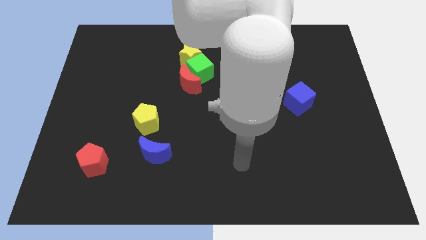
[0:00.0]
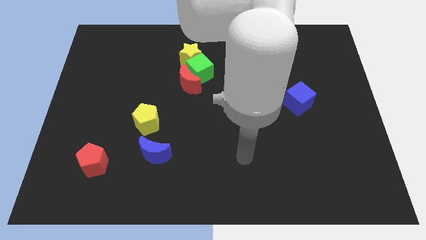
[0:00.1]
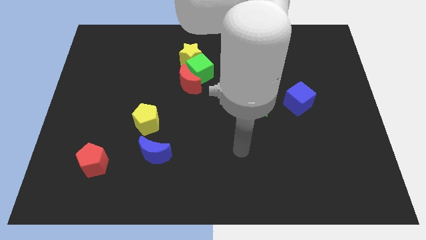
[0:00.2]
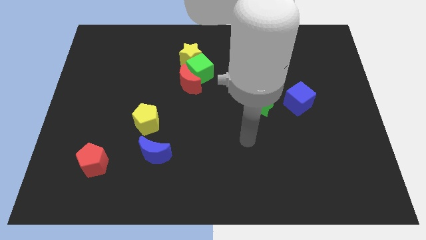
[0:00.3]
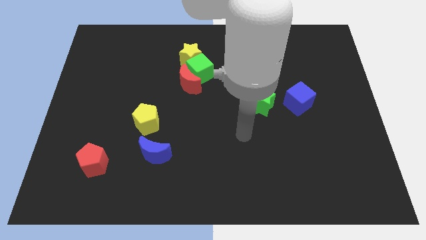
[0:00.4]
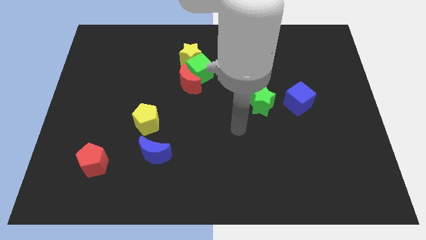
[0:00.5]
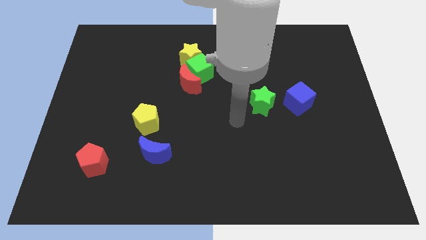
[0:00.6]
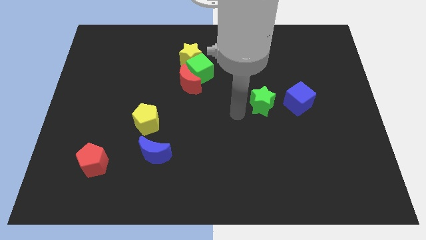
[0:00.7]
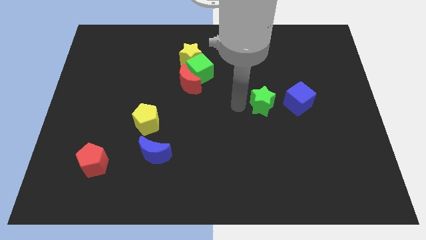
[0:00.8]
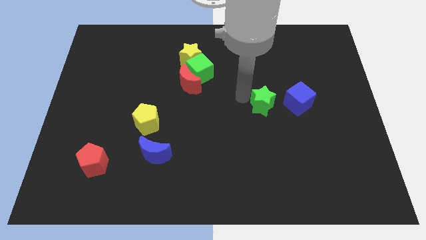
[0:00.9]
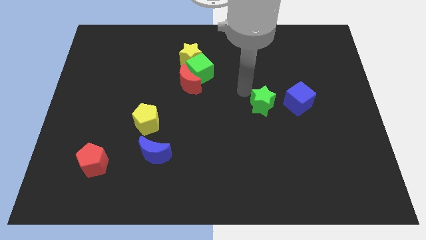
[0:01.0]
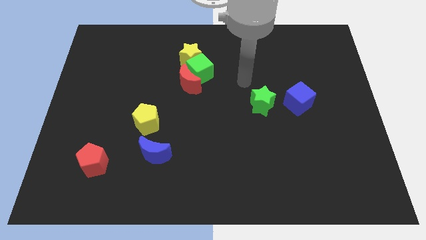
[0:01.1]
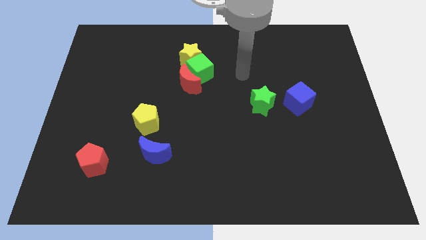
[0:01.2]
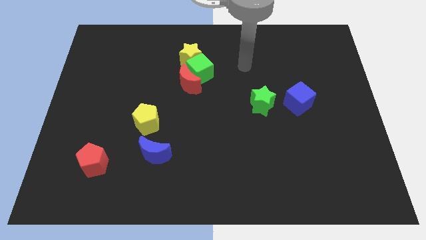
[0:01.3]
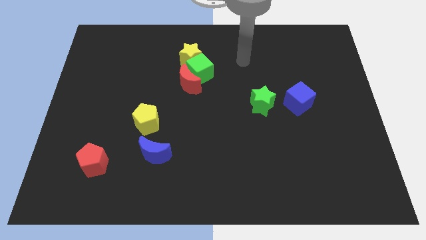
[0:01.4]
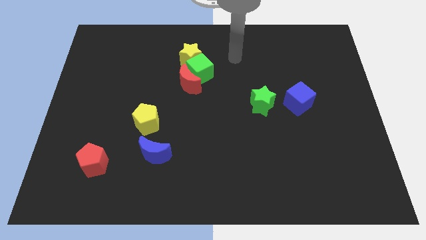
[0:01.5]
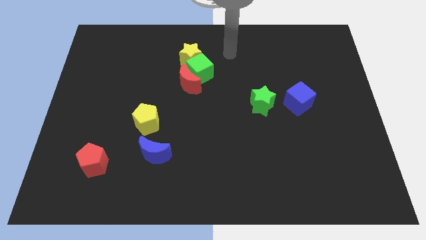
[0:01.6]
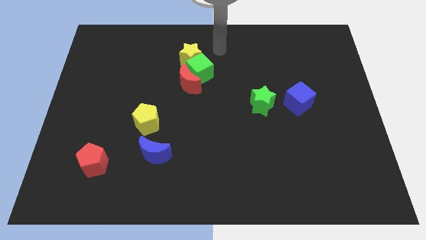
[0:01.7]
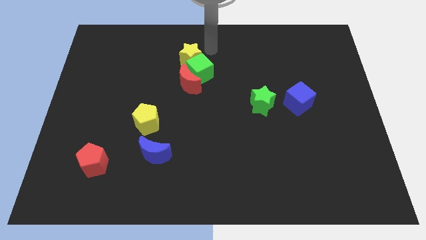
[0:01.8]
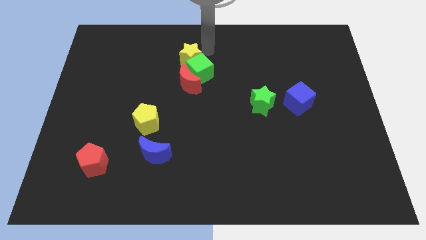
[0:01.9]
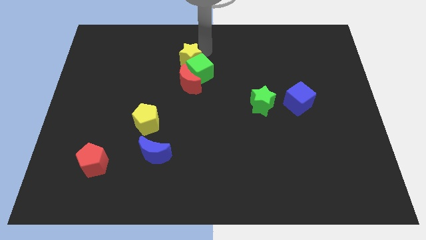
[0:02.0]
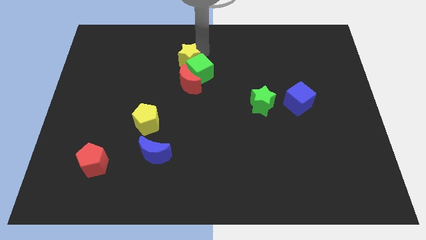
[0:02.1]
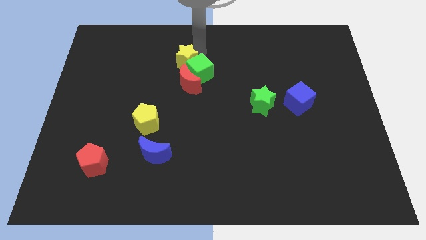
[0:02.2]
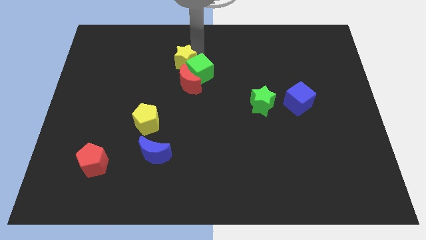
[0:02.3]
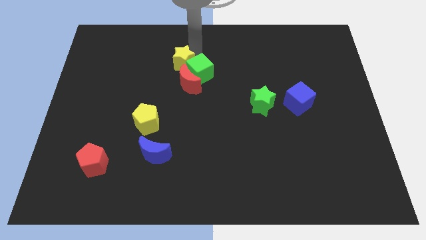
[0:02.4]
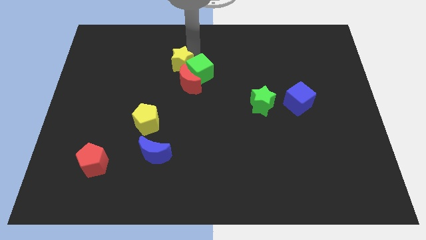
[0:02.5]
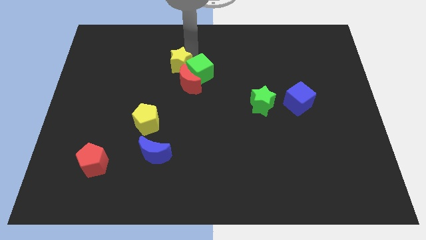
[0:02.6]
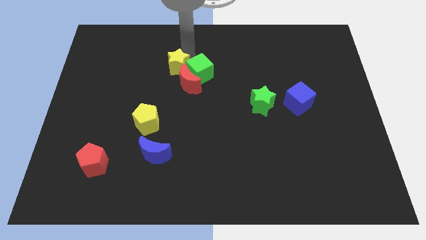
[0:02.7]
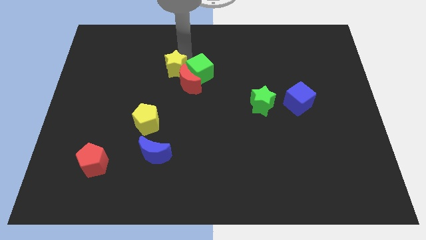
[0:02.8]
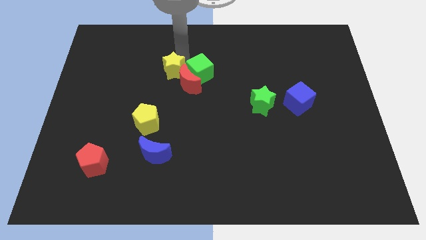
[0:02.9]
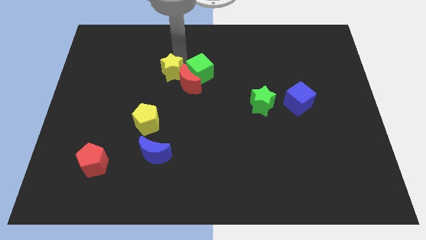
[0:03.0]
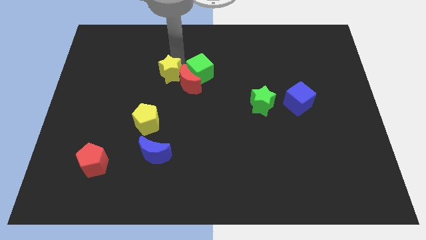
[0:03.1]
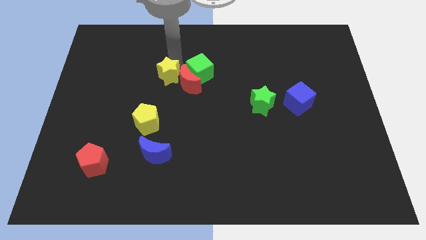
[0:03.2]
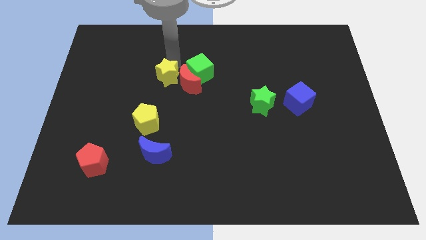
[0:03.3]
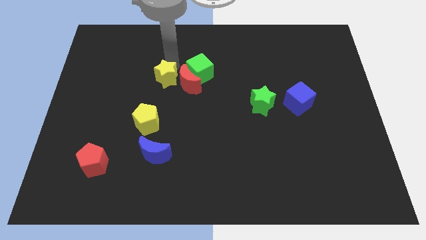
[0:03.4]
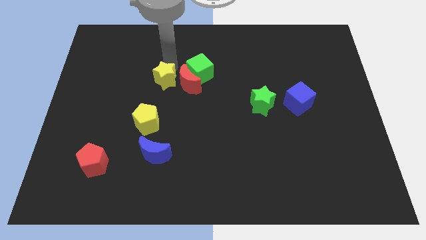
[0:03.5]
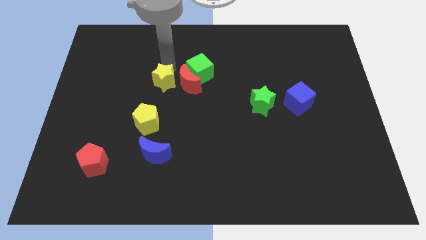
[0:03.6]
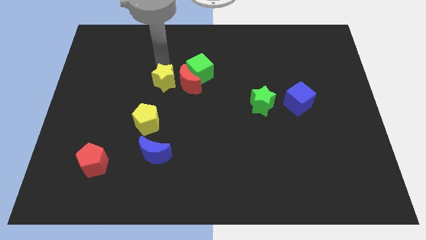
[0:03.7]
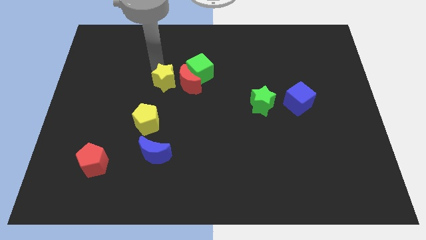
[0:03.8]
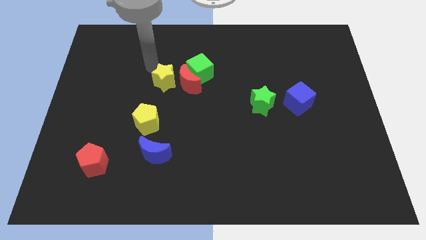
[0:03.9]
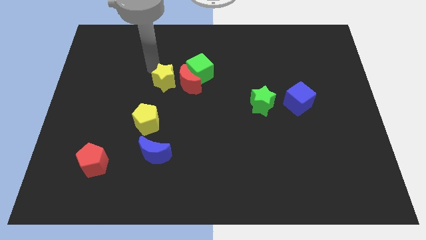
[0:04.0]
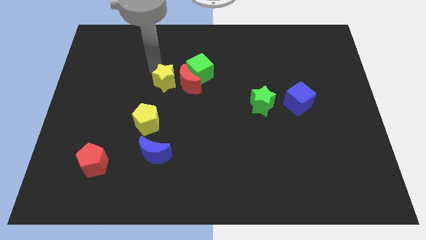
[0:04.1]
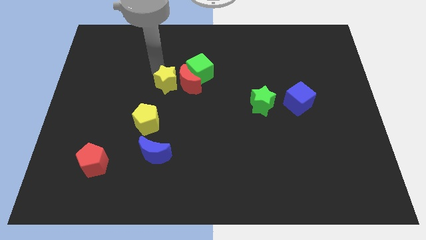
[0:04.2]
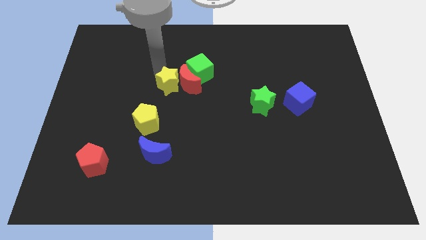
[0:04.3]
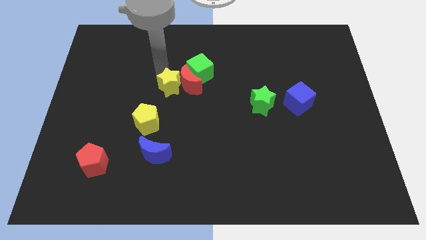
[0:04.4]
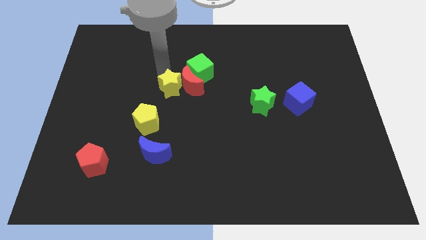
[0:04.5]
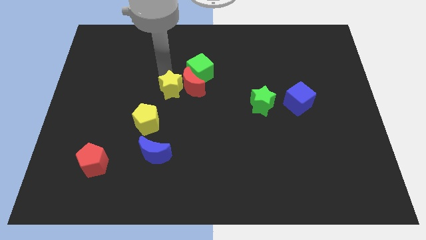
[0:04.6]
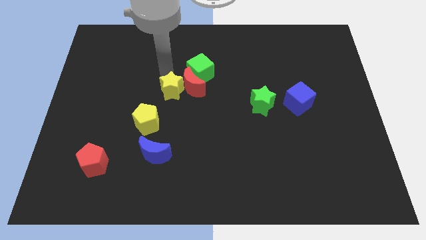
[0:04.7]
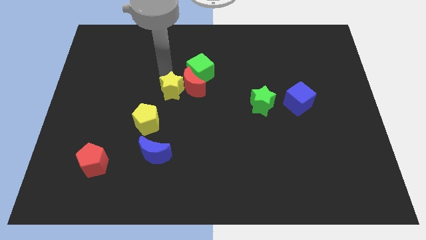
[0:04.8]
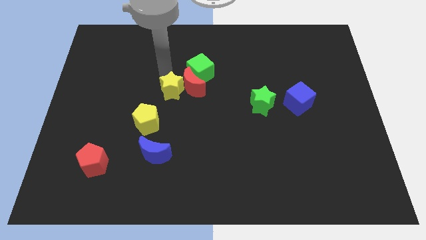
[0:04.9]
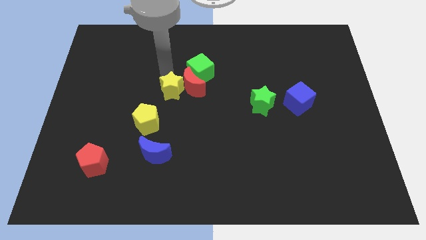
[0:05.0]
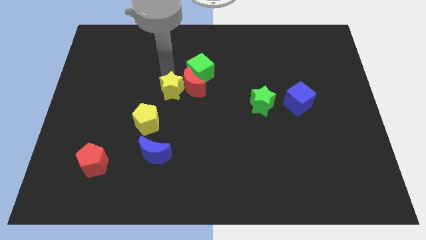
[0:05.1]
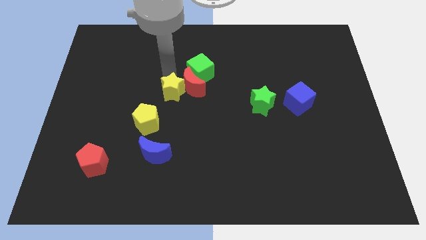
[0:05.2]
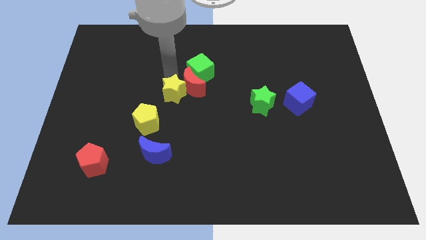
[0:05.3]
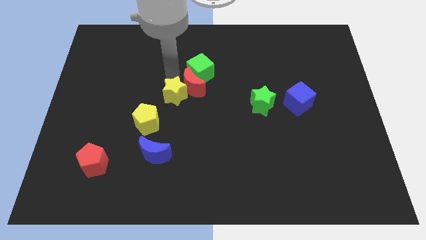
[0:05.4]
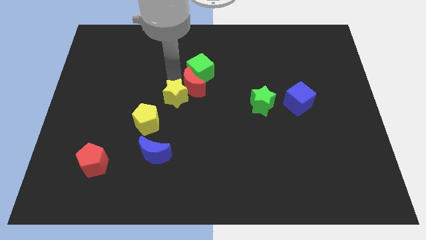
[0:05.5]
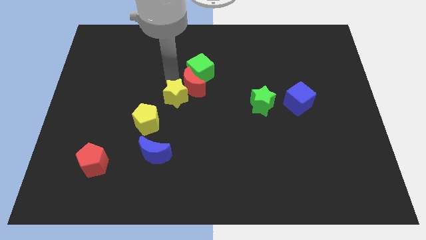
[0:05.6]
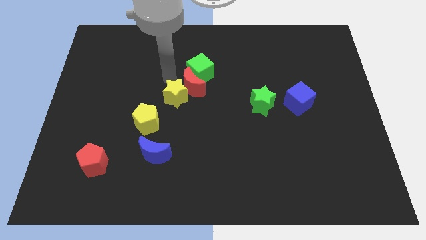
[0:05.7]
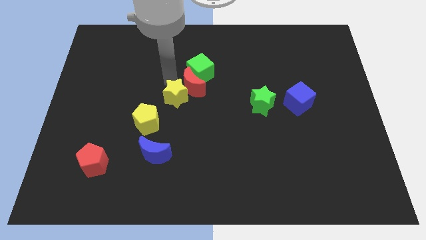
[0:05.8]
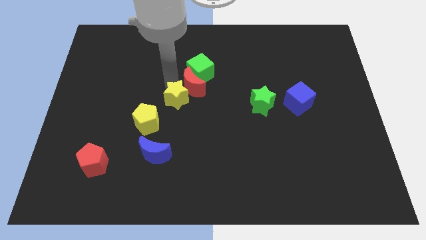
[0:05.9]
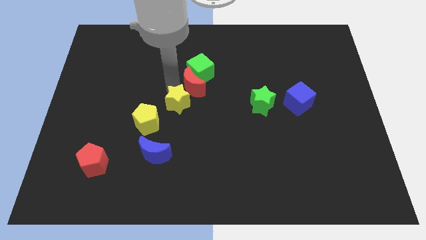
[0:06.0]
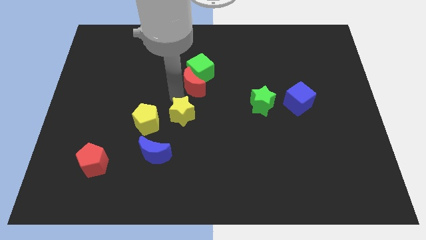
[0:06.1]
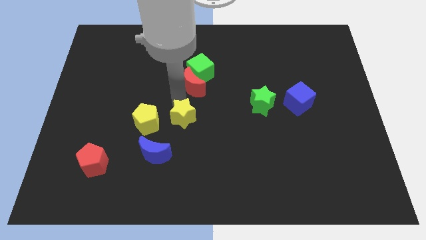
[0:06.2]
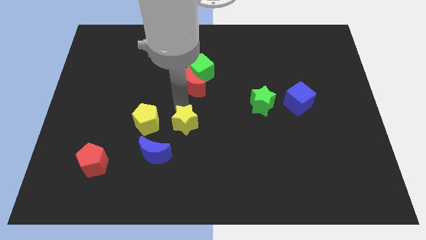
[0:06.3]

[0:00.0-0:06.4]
move the yellow star downwards

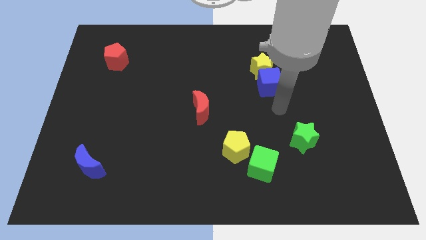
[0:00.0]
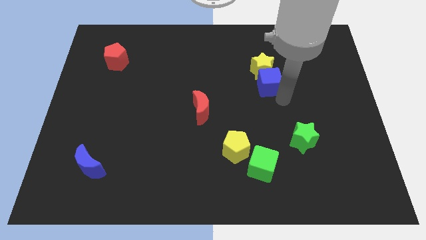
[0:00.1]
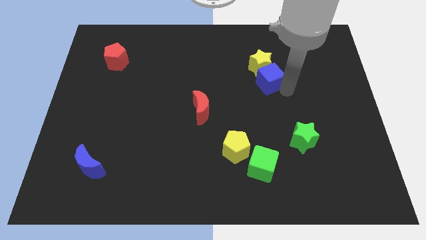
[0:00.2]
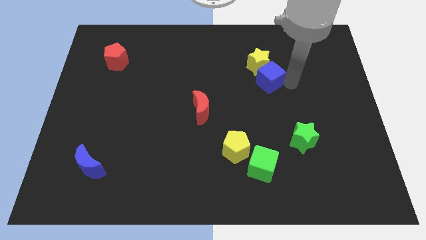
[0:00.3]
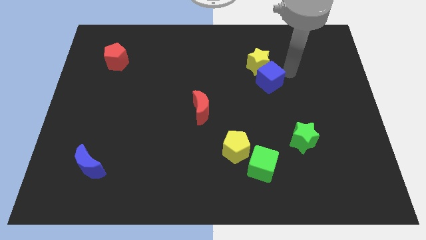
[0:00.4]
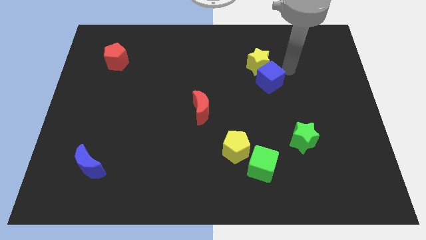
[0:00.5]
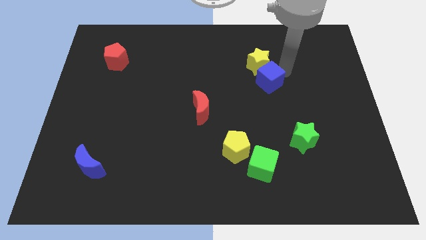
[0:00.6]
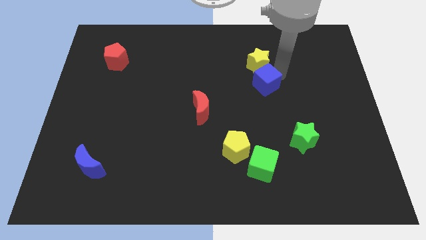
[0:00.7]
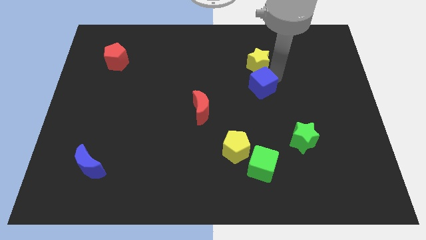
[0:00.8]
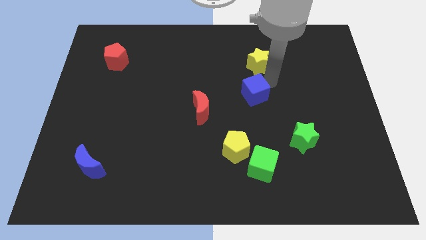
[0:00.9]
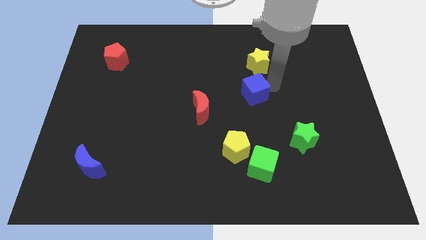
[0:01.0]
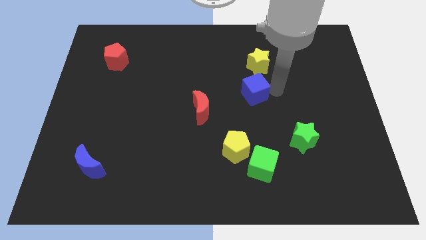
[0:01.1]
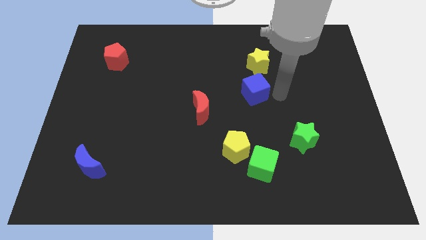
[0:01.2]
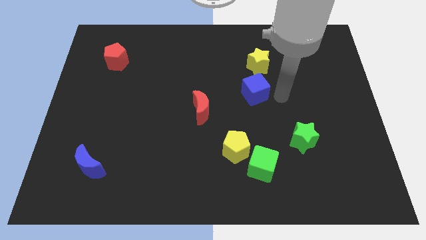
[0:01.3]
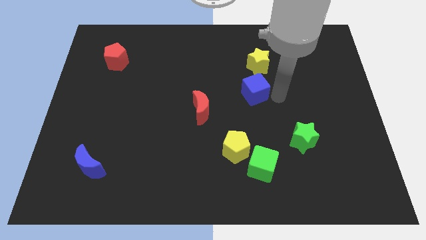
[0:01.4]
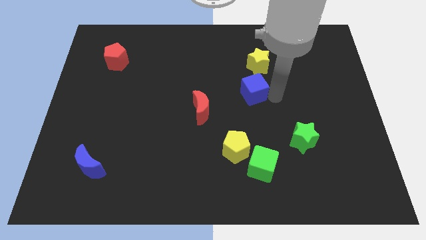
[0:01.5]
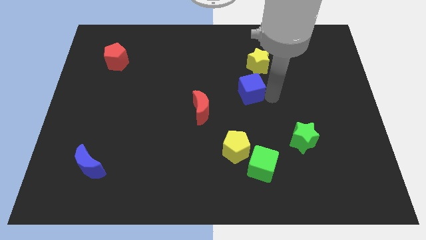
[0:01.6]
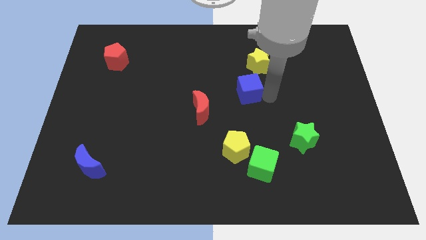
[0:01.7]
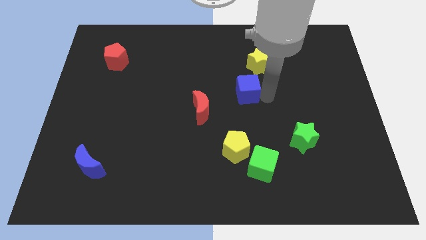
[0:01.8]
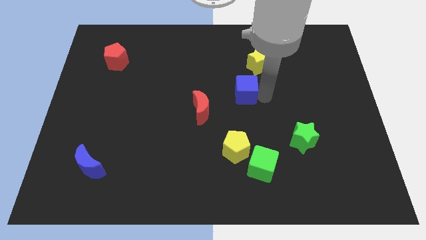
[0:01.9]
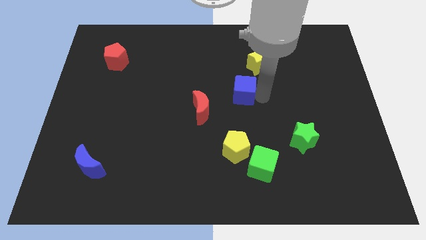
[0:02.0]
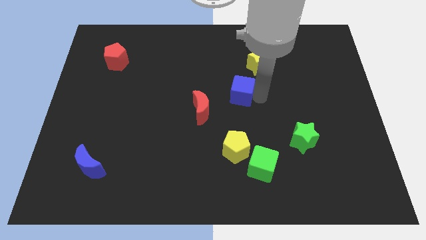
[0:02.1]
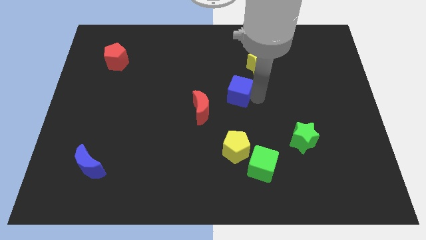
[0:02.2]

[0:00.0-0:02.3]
slide the blue cube a bit to the left
